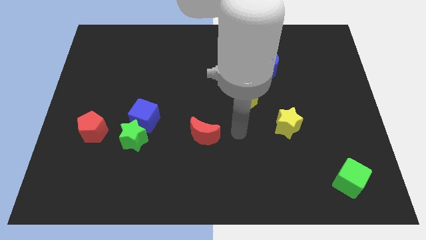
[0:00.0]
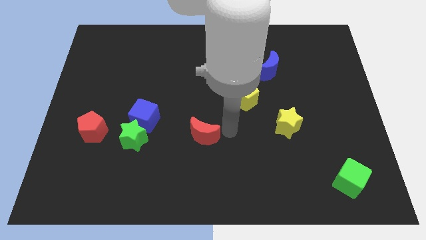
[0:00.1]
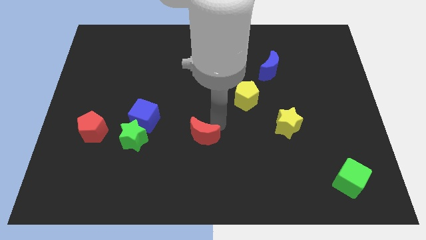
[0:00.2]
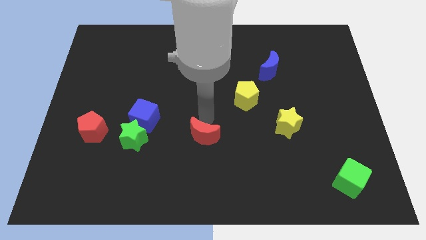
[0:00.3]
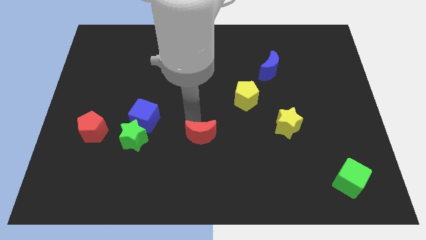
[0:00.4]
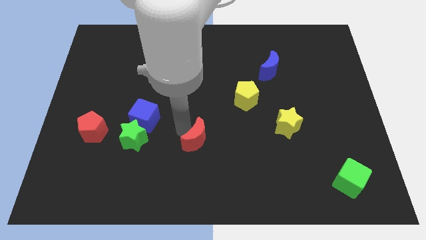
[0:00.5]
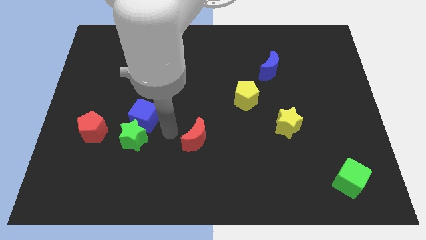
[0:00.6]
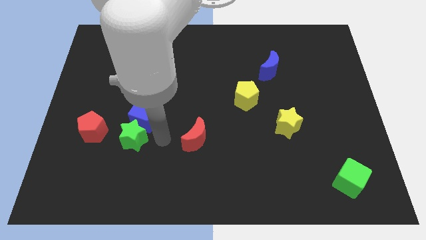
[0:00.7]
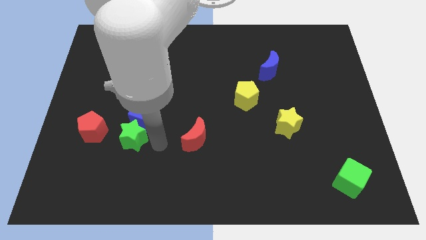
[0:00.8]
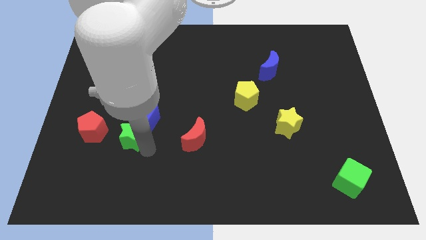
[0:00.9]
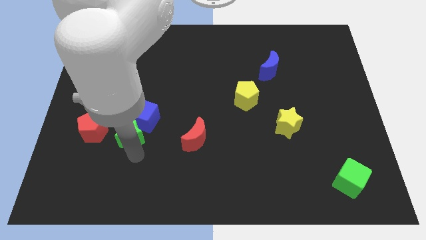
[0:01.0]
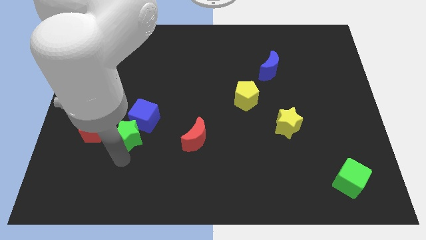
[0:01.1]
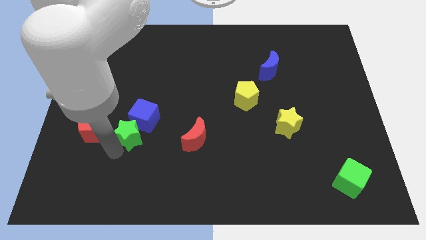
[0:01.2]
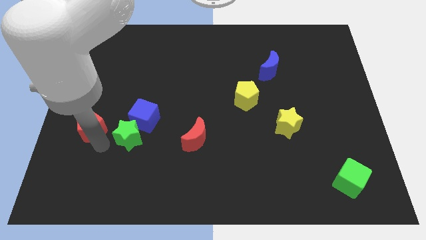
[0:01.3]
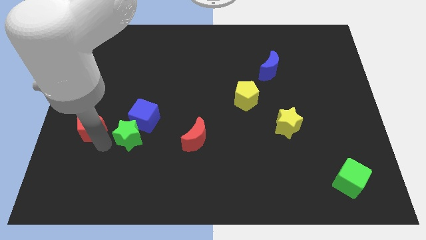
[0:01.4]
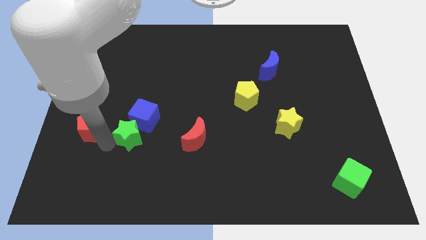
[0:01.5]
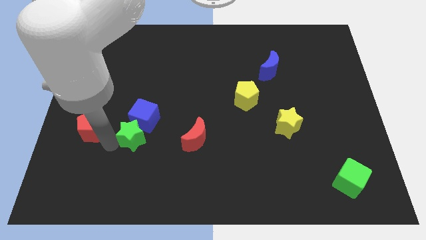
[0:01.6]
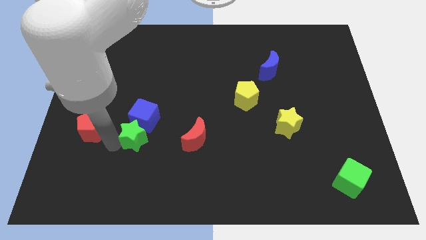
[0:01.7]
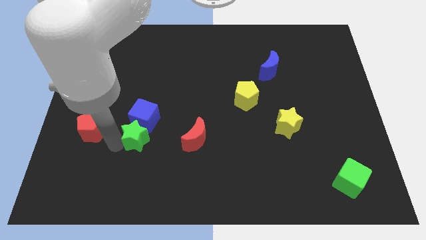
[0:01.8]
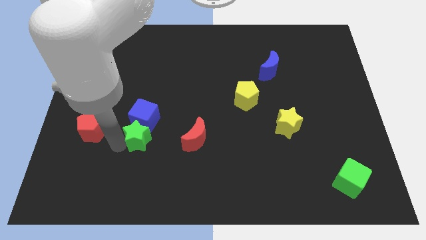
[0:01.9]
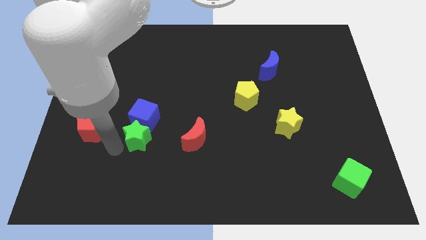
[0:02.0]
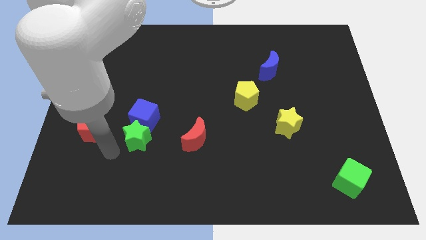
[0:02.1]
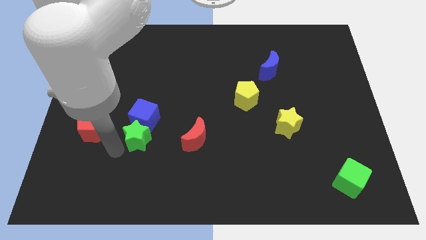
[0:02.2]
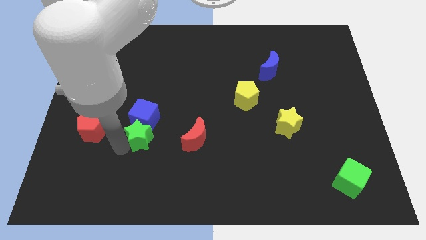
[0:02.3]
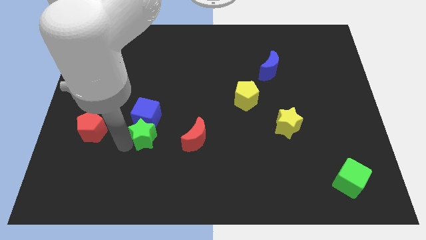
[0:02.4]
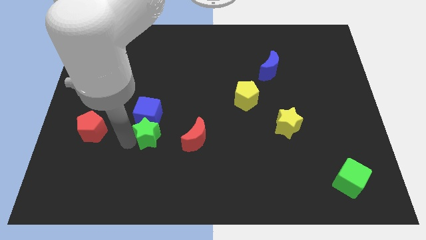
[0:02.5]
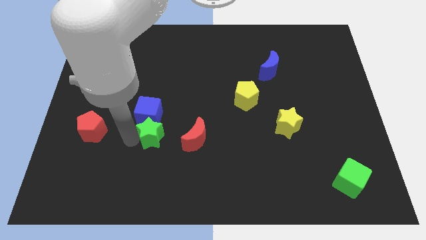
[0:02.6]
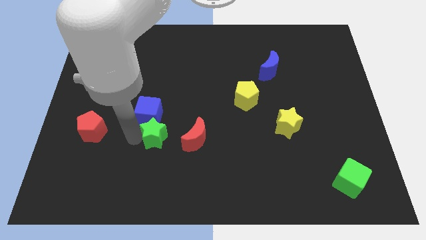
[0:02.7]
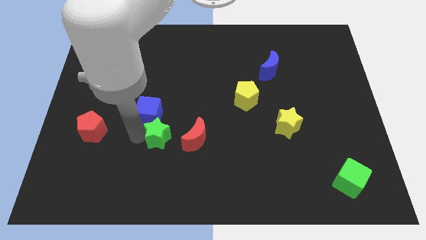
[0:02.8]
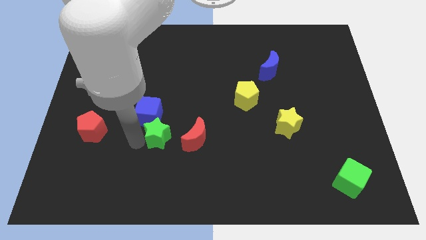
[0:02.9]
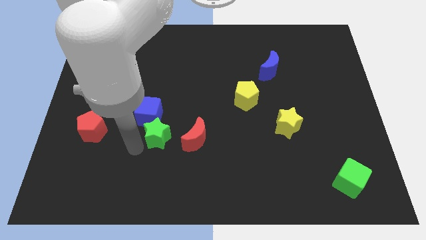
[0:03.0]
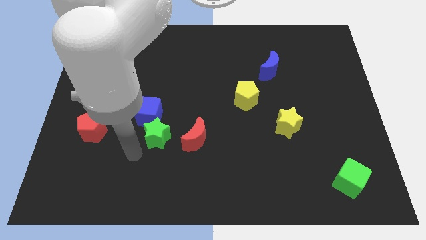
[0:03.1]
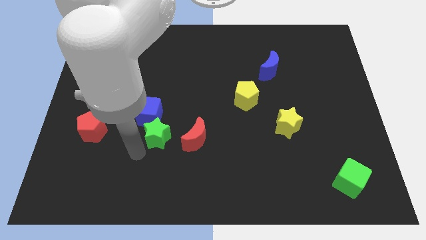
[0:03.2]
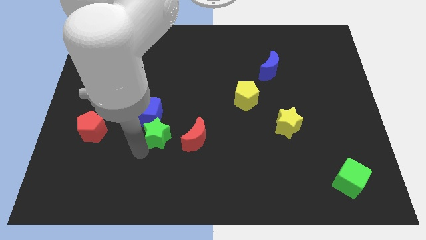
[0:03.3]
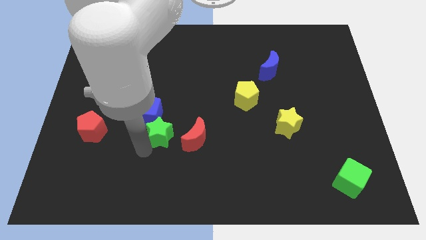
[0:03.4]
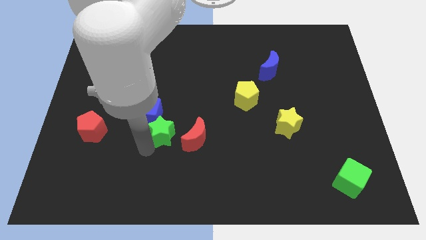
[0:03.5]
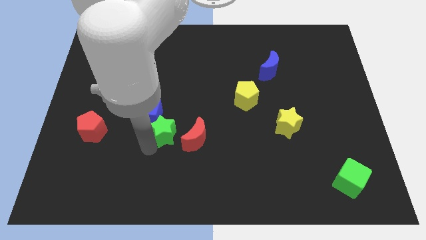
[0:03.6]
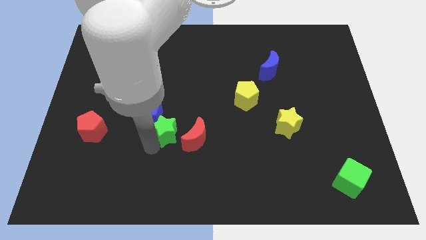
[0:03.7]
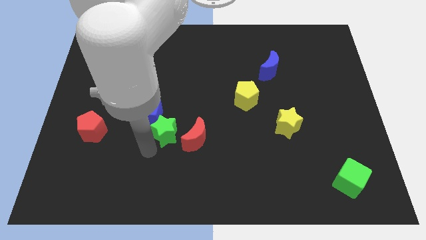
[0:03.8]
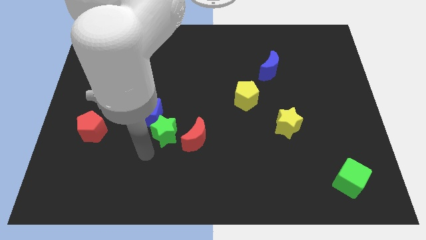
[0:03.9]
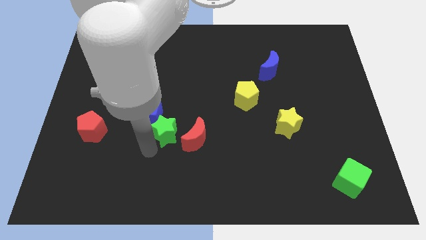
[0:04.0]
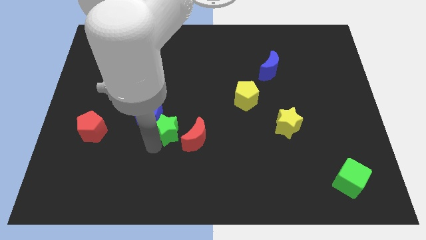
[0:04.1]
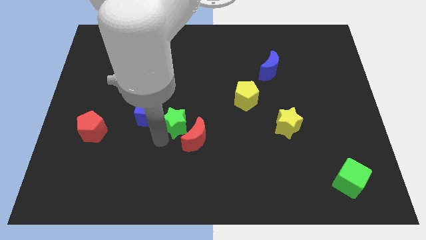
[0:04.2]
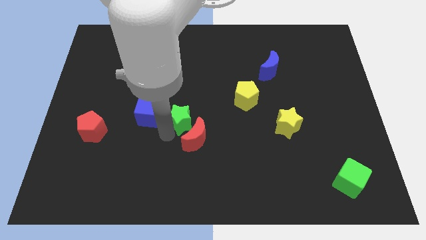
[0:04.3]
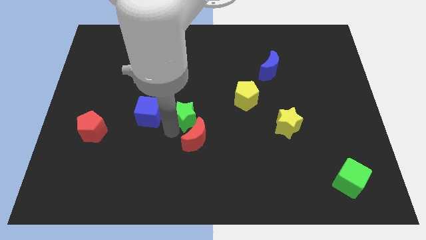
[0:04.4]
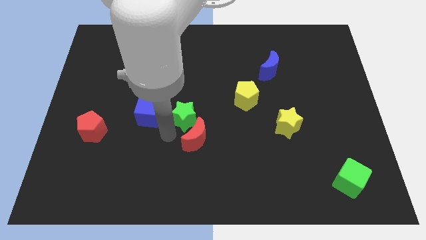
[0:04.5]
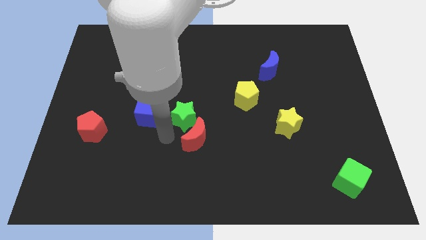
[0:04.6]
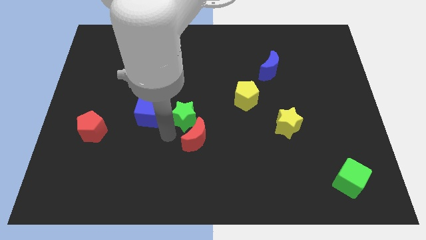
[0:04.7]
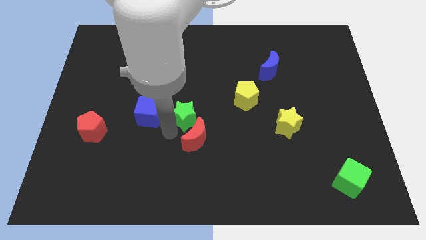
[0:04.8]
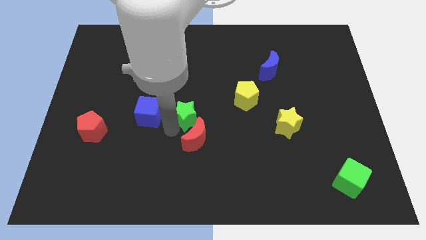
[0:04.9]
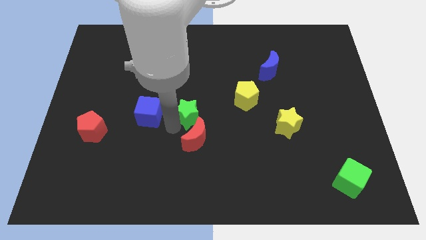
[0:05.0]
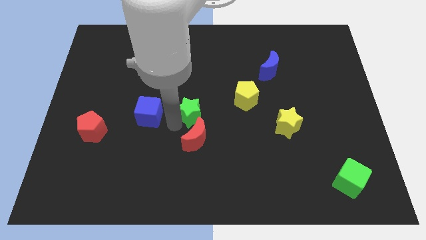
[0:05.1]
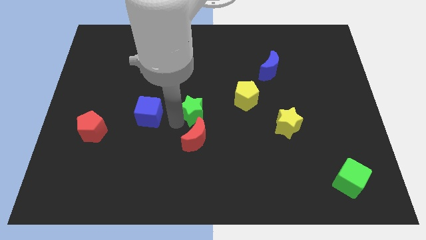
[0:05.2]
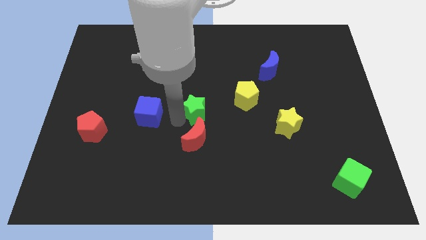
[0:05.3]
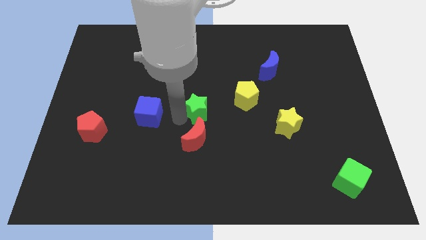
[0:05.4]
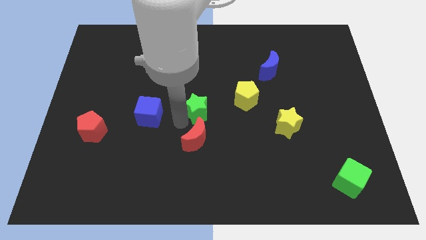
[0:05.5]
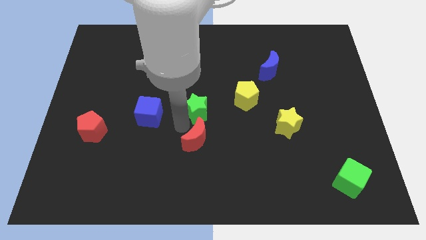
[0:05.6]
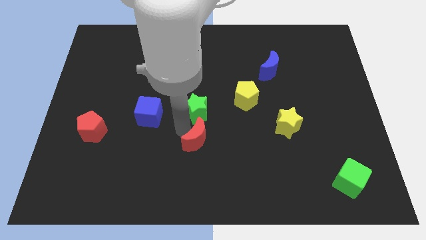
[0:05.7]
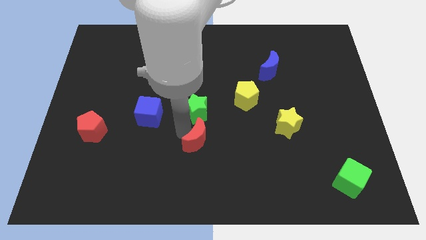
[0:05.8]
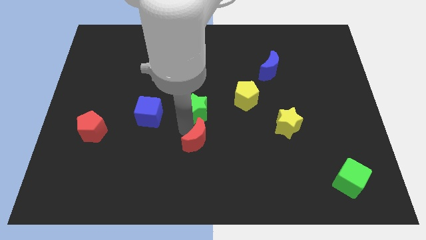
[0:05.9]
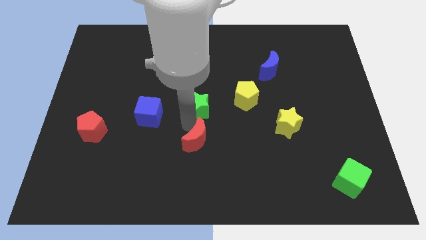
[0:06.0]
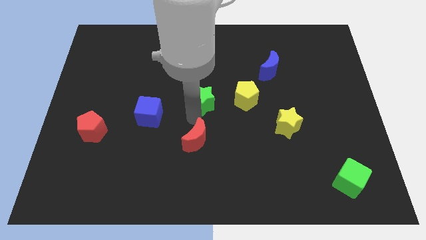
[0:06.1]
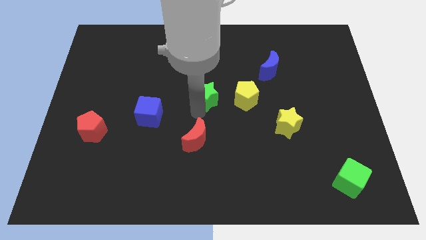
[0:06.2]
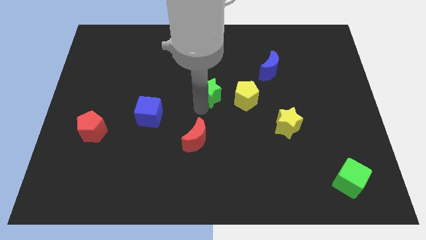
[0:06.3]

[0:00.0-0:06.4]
move the green star upwards and to the right diagonally

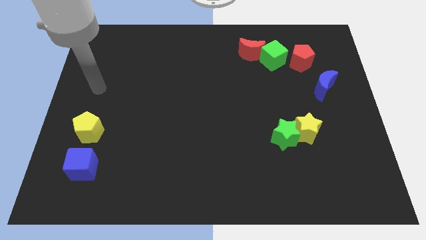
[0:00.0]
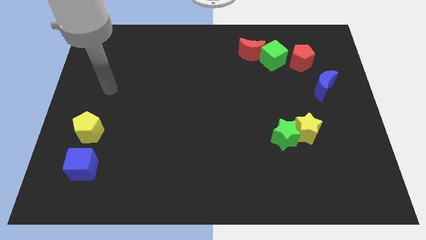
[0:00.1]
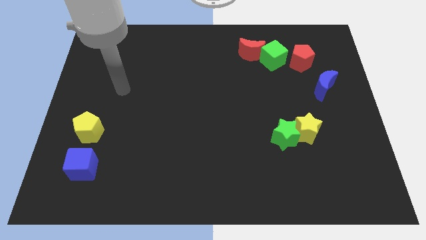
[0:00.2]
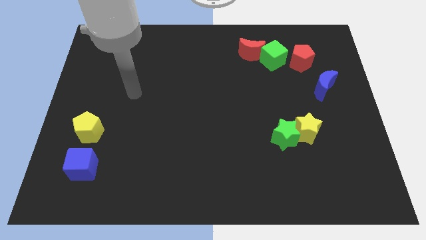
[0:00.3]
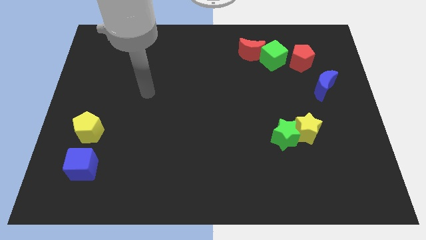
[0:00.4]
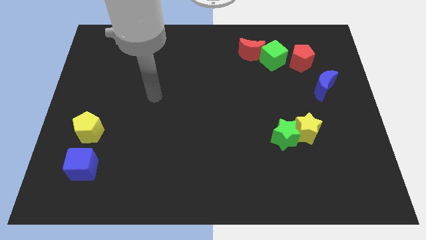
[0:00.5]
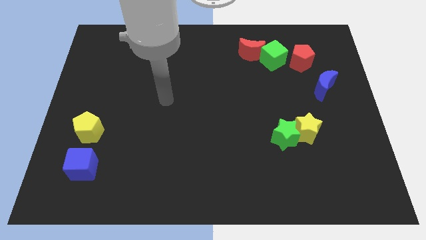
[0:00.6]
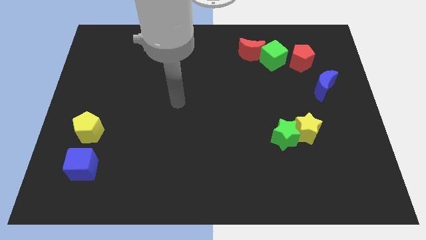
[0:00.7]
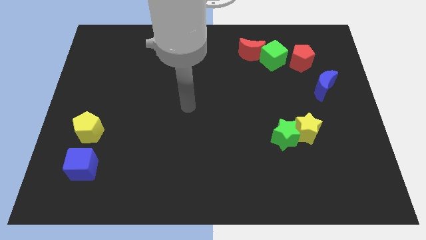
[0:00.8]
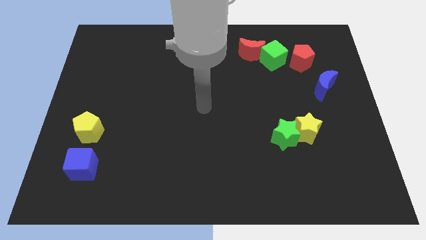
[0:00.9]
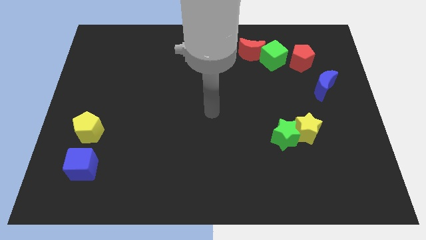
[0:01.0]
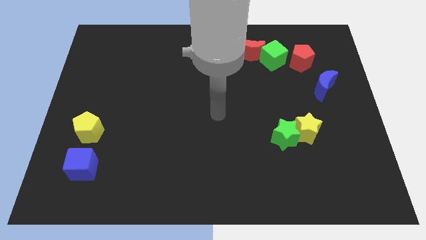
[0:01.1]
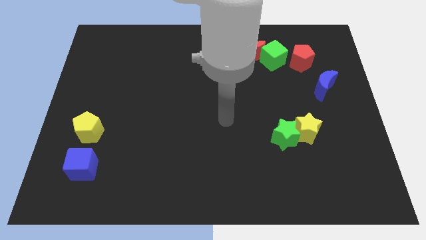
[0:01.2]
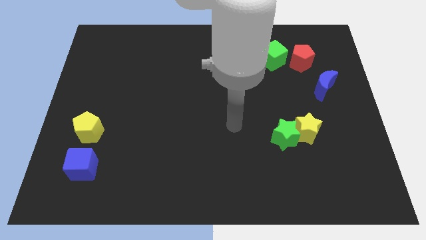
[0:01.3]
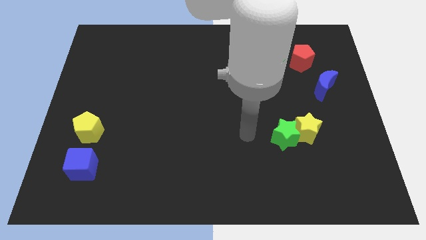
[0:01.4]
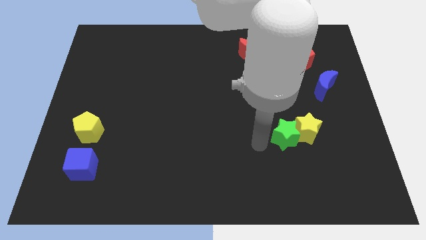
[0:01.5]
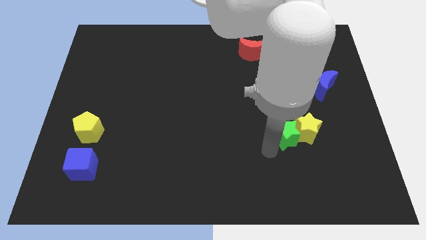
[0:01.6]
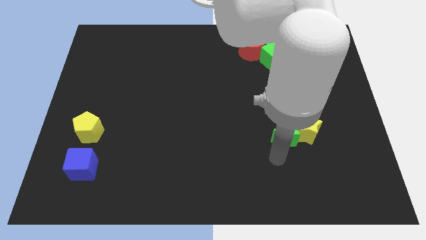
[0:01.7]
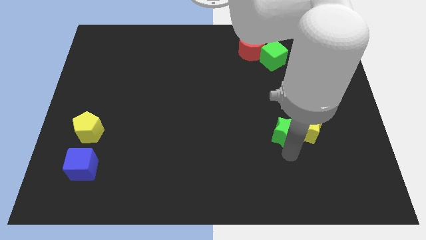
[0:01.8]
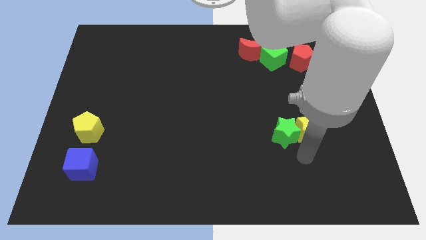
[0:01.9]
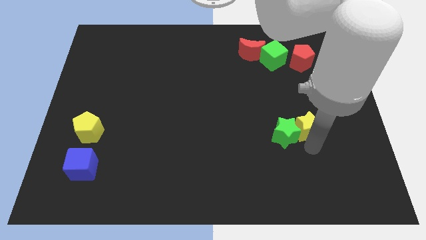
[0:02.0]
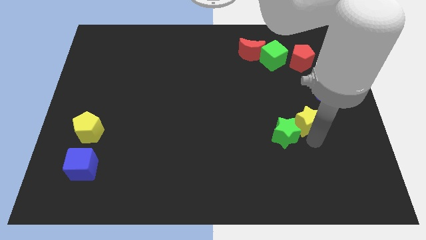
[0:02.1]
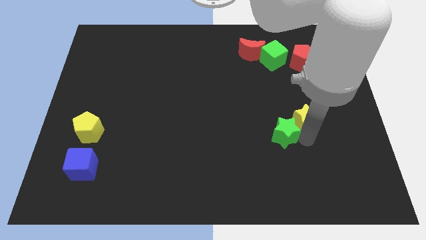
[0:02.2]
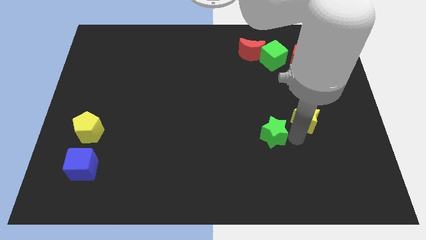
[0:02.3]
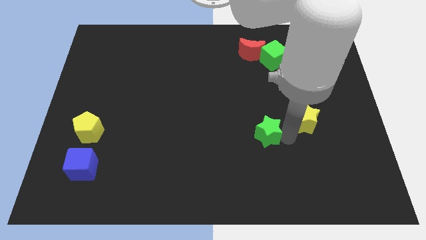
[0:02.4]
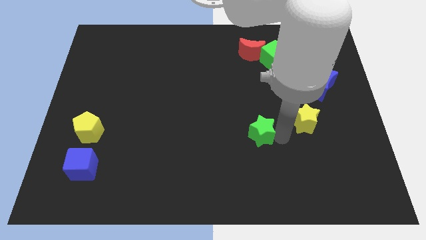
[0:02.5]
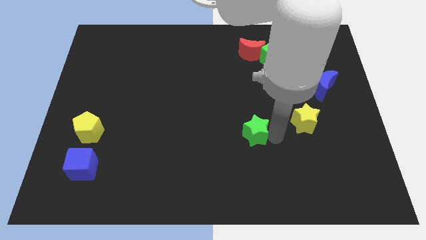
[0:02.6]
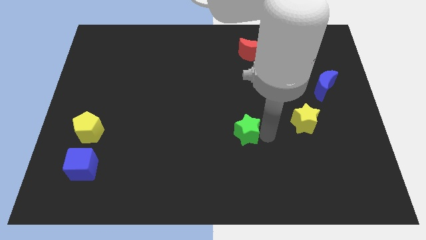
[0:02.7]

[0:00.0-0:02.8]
move the green star a little to the left
